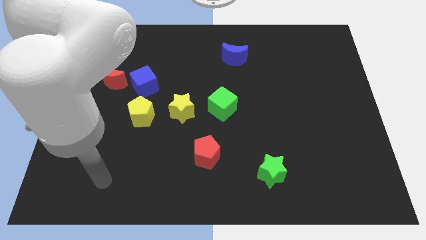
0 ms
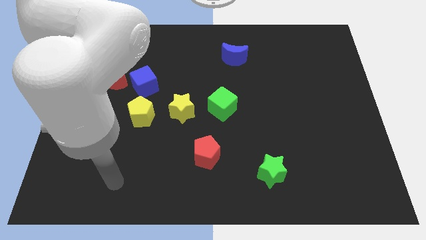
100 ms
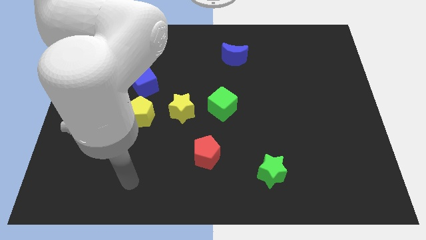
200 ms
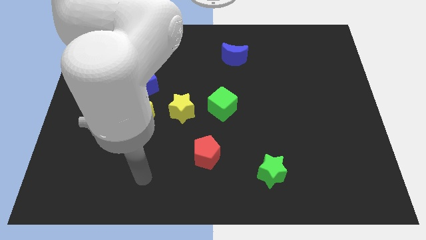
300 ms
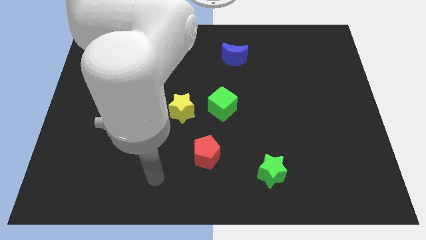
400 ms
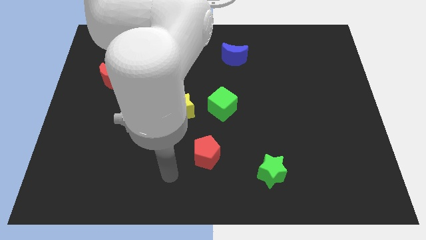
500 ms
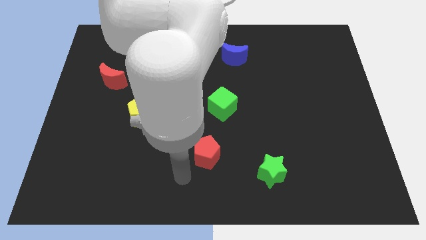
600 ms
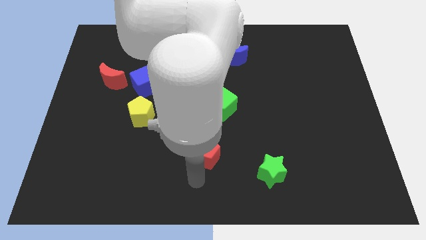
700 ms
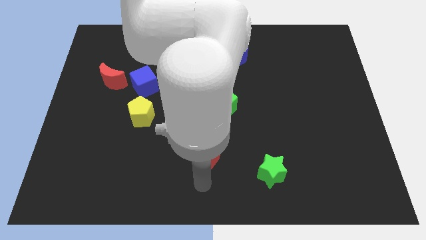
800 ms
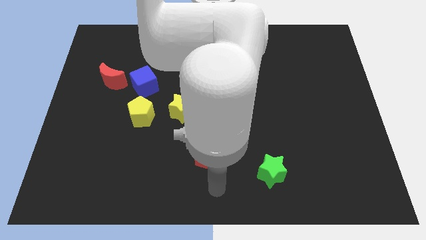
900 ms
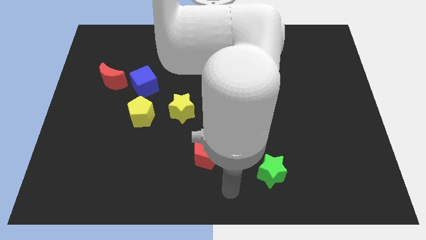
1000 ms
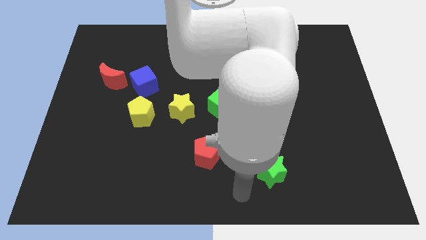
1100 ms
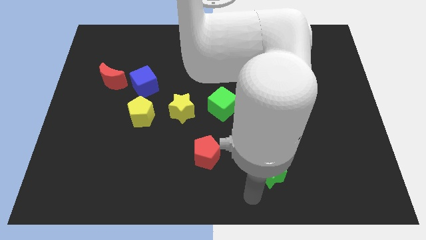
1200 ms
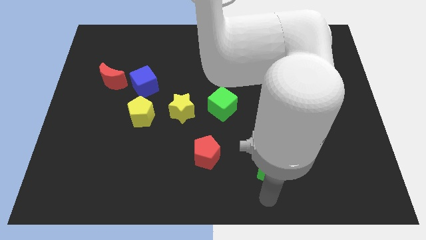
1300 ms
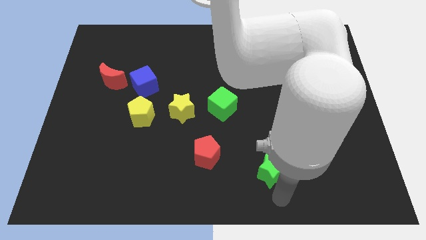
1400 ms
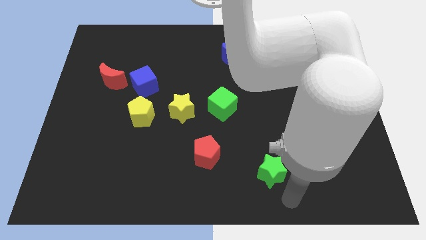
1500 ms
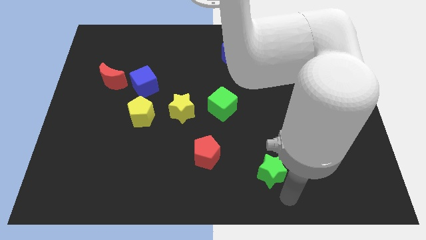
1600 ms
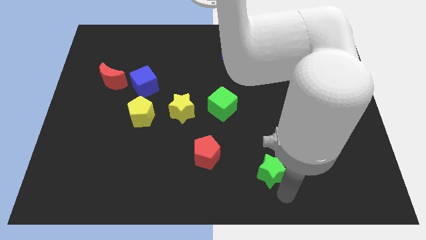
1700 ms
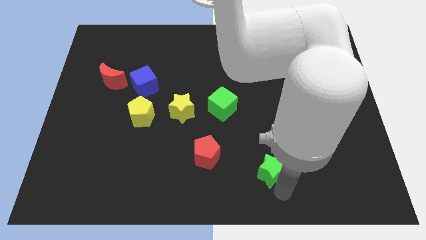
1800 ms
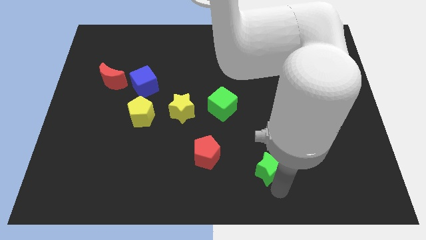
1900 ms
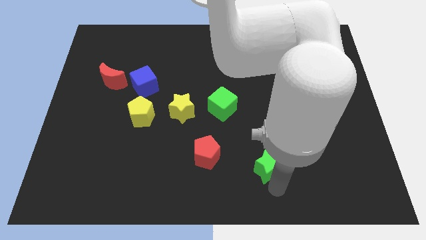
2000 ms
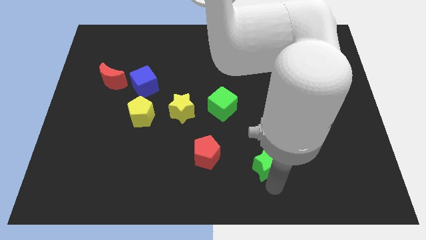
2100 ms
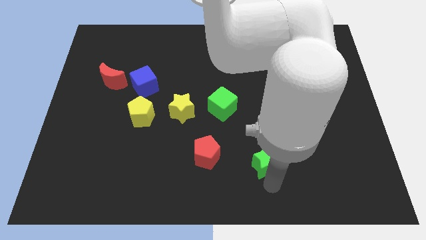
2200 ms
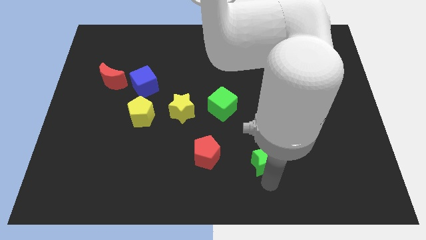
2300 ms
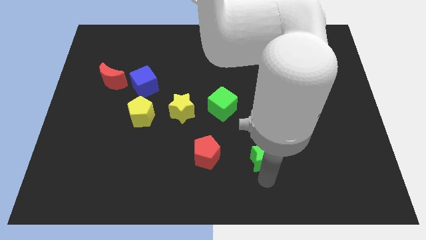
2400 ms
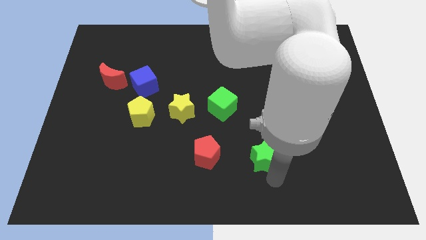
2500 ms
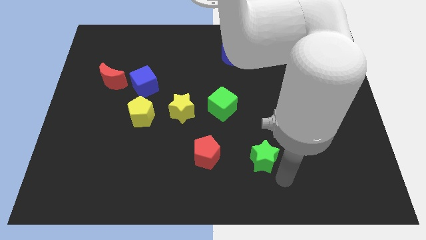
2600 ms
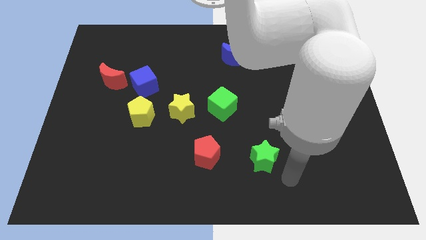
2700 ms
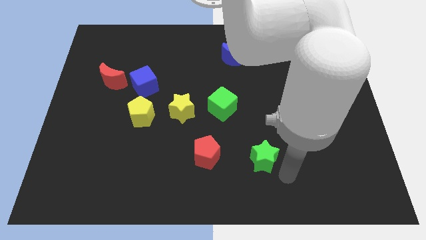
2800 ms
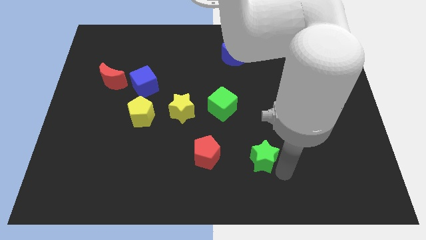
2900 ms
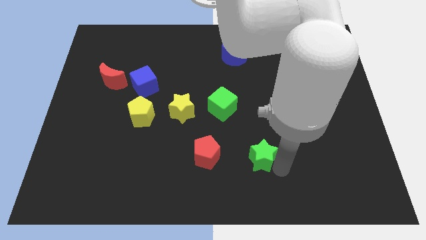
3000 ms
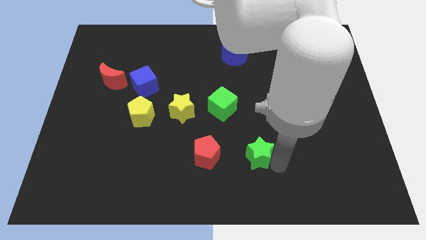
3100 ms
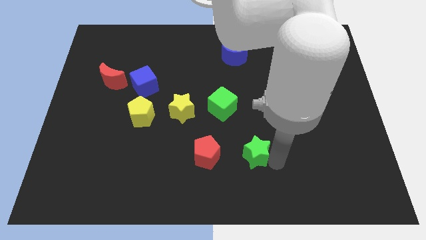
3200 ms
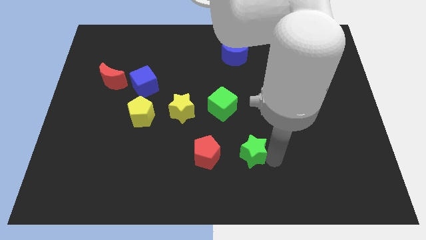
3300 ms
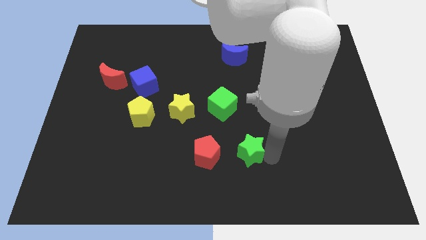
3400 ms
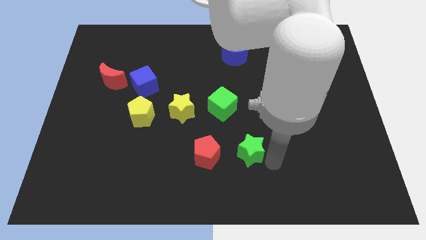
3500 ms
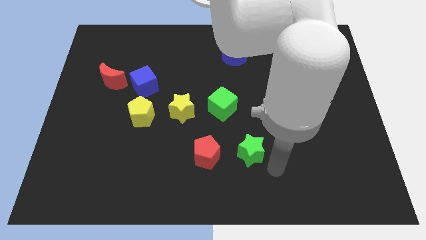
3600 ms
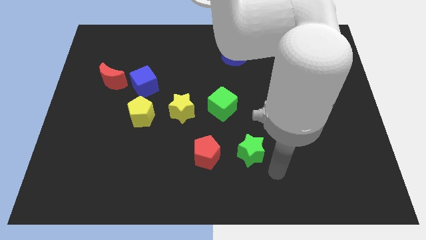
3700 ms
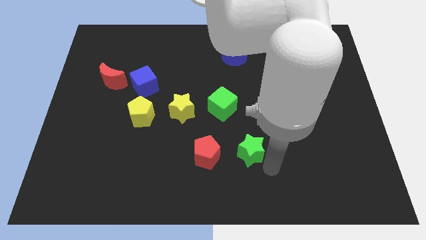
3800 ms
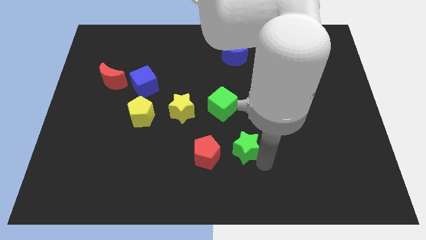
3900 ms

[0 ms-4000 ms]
push the green star up and left slightly

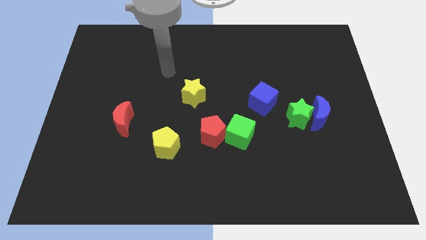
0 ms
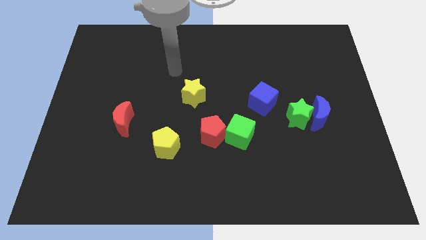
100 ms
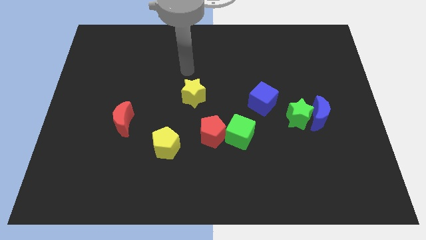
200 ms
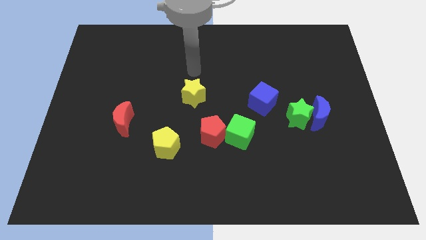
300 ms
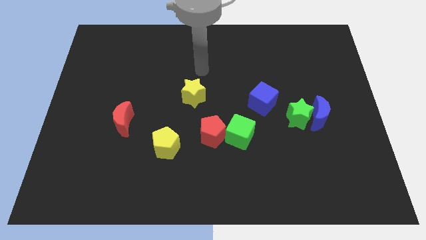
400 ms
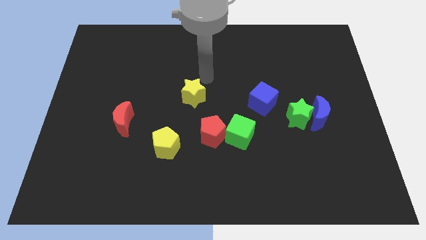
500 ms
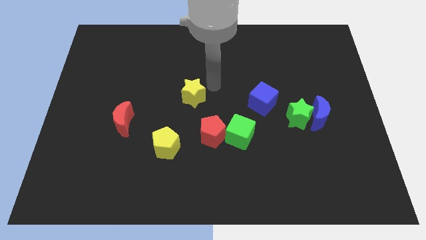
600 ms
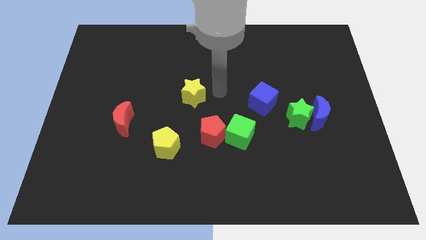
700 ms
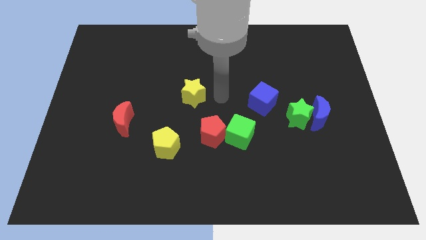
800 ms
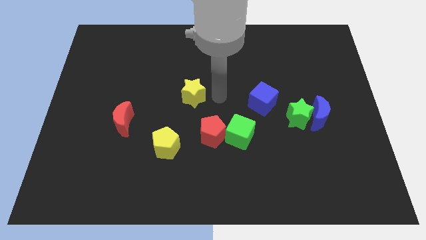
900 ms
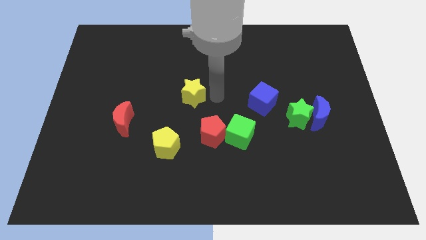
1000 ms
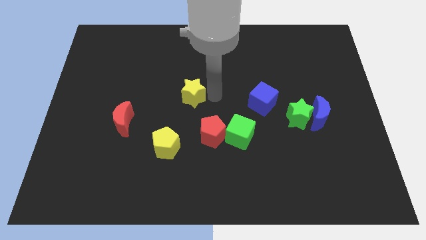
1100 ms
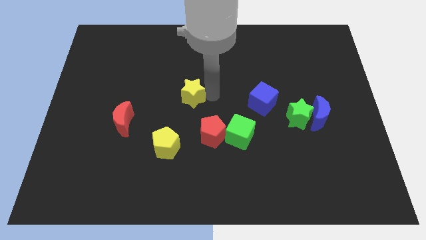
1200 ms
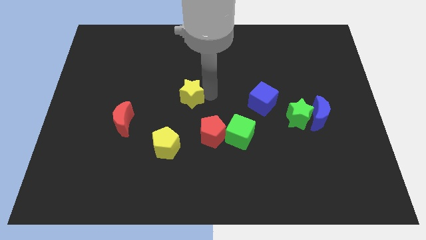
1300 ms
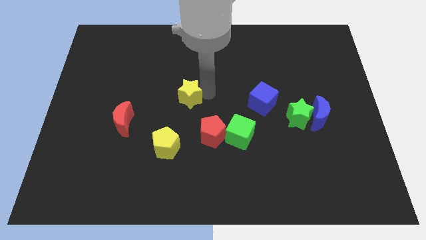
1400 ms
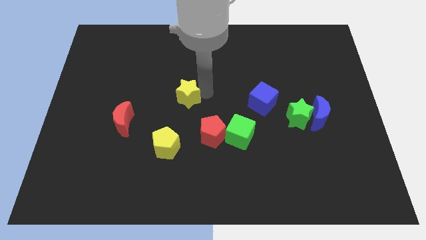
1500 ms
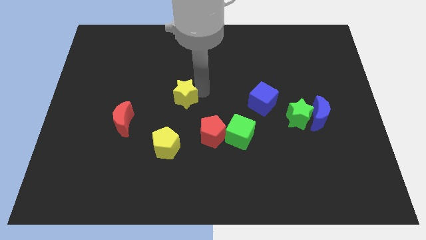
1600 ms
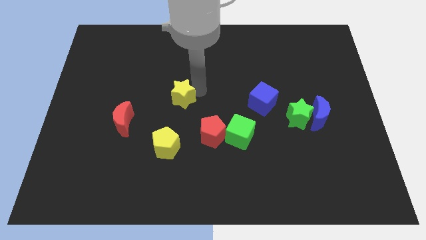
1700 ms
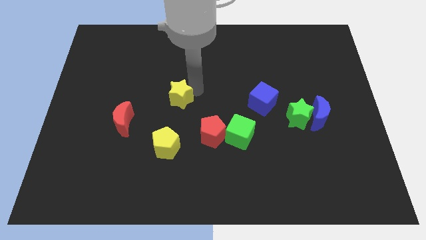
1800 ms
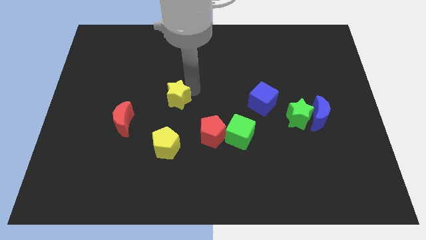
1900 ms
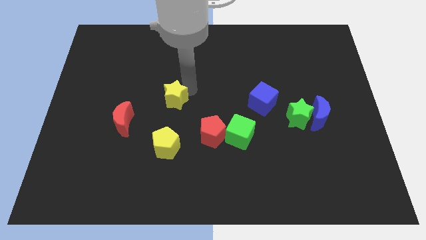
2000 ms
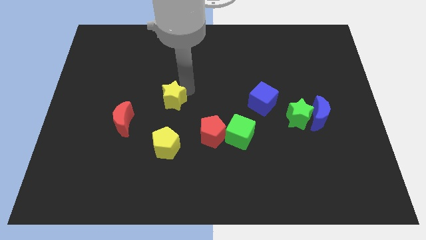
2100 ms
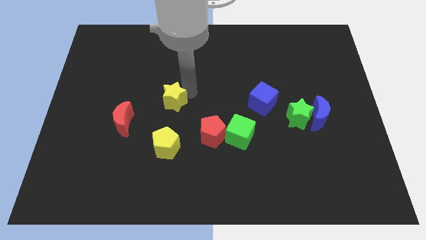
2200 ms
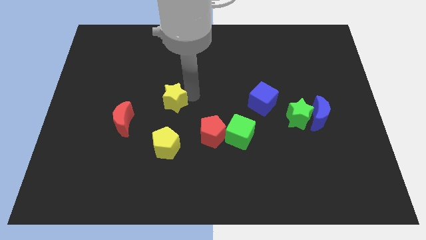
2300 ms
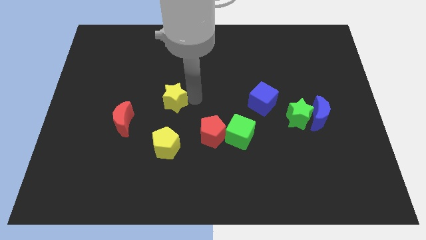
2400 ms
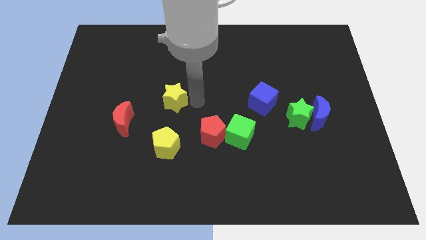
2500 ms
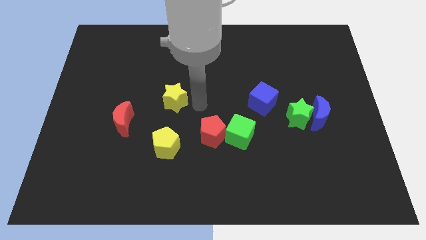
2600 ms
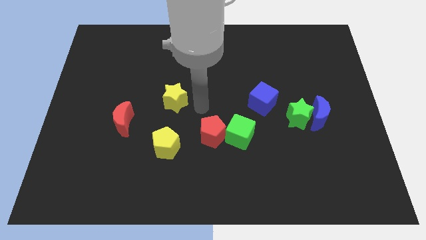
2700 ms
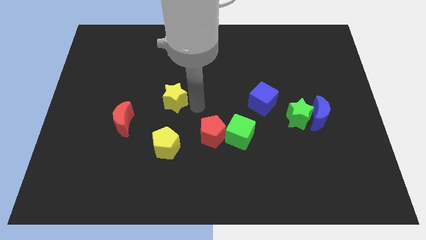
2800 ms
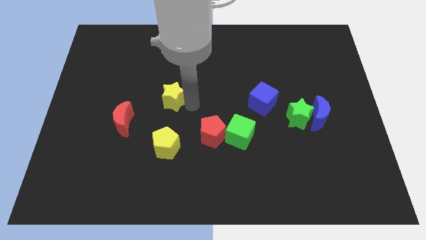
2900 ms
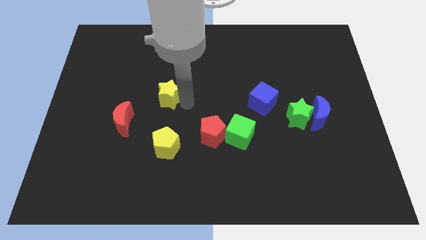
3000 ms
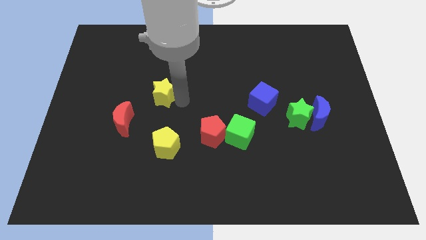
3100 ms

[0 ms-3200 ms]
slightly slide the yellow star to the left

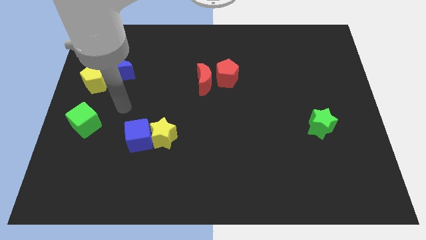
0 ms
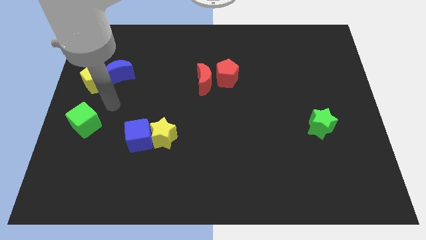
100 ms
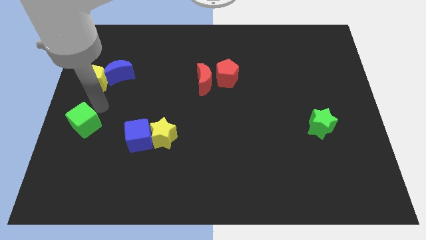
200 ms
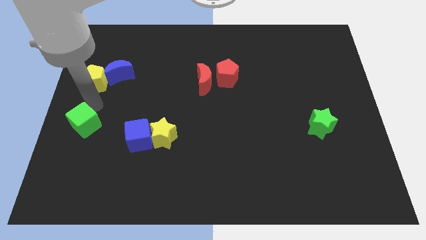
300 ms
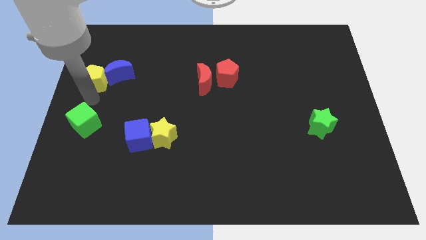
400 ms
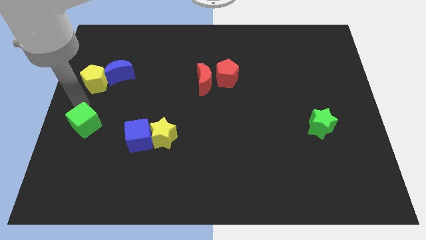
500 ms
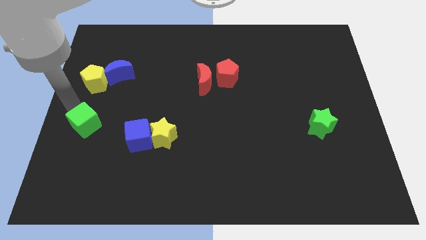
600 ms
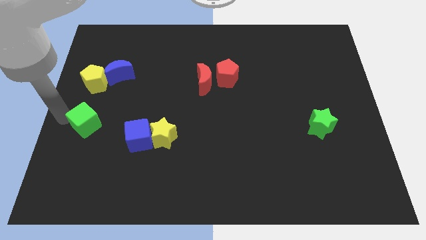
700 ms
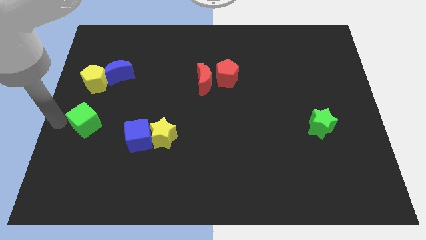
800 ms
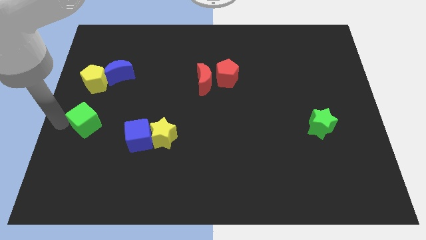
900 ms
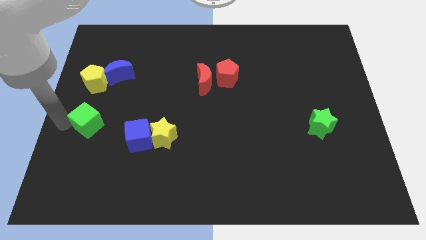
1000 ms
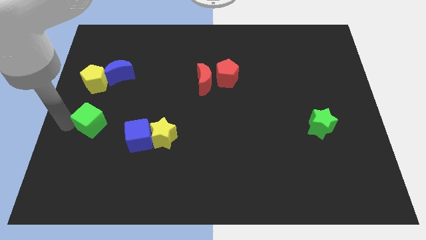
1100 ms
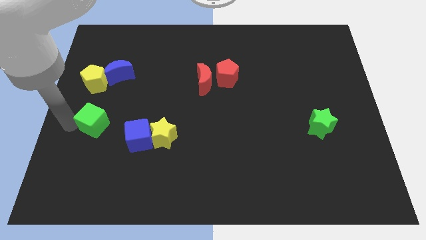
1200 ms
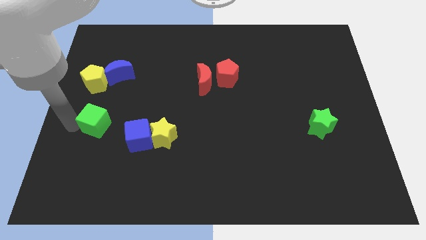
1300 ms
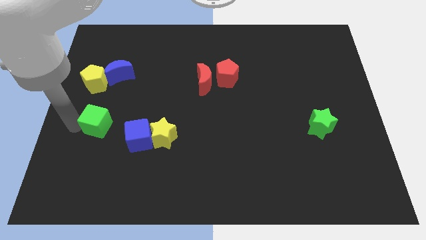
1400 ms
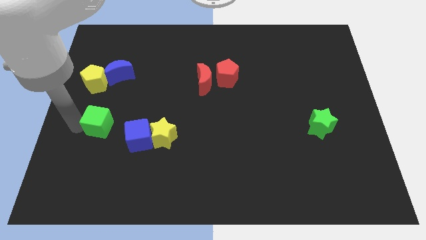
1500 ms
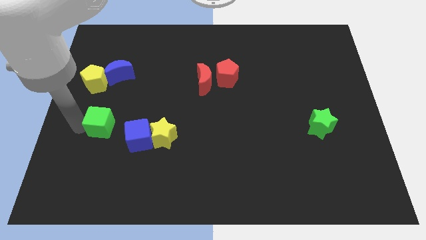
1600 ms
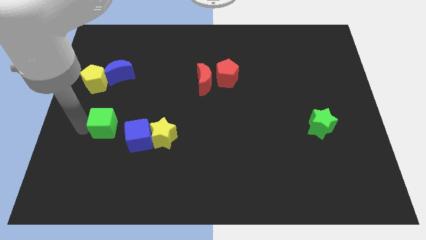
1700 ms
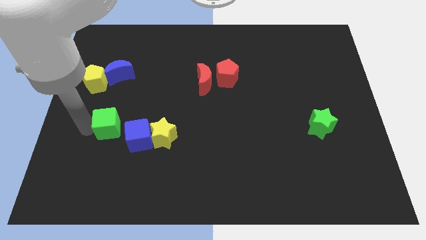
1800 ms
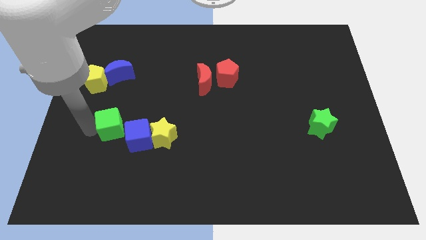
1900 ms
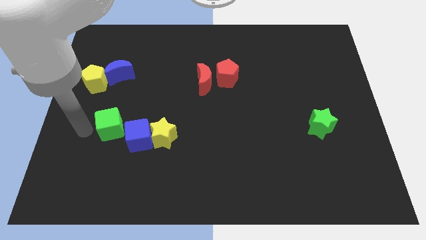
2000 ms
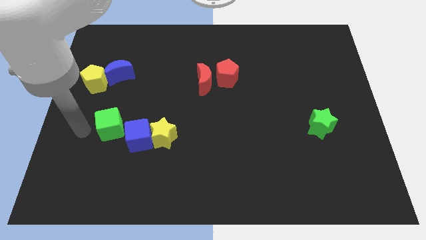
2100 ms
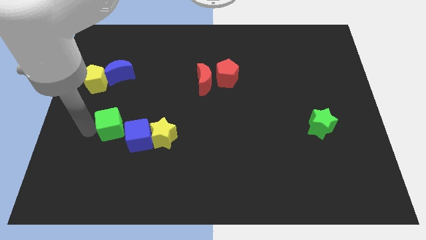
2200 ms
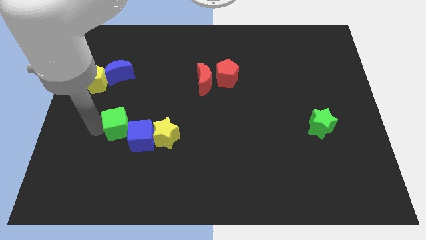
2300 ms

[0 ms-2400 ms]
slightly move the green cube right
